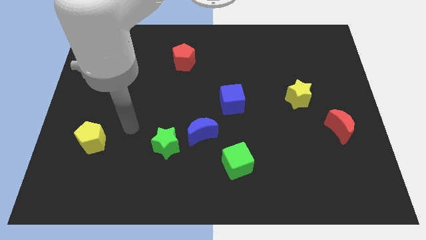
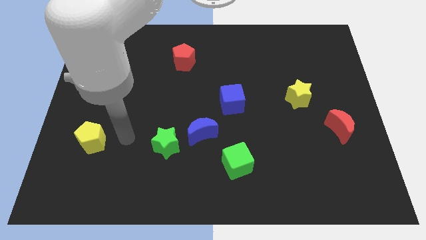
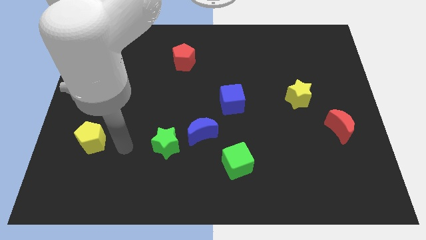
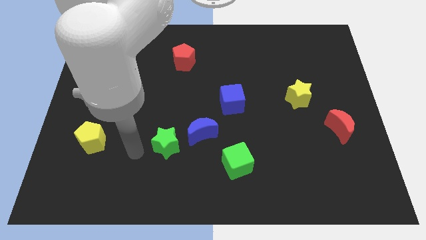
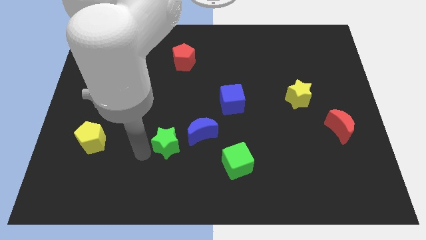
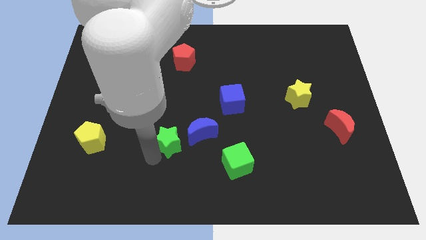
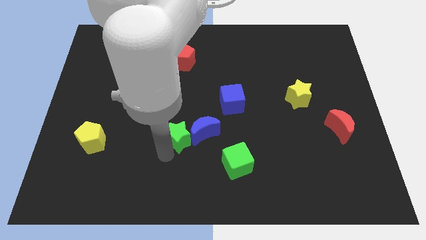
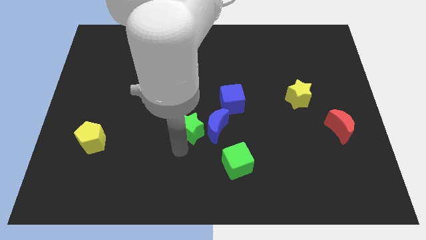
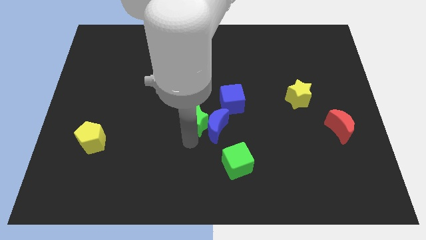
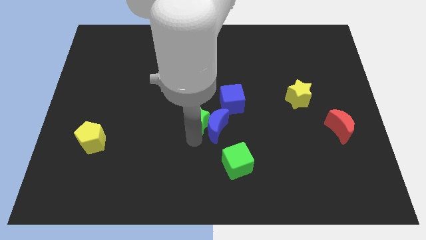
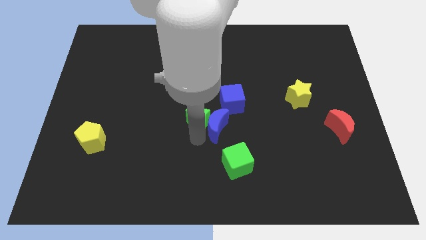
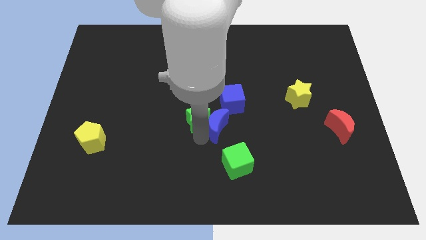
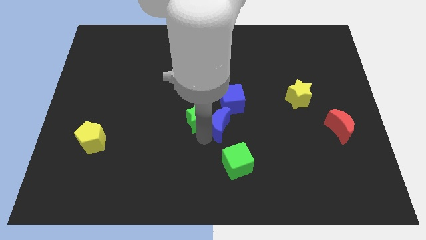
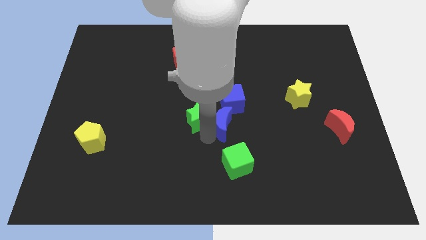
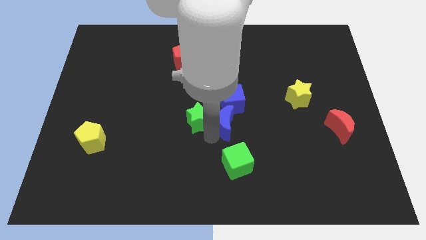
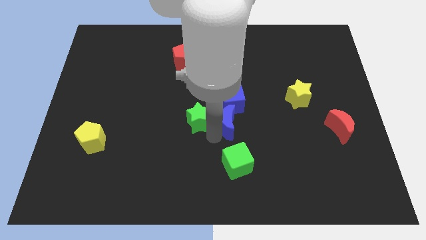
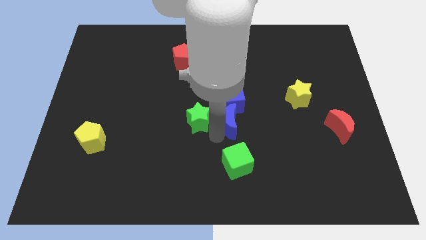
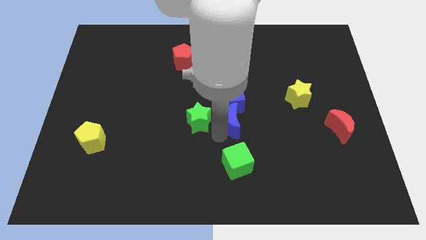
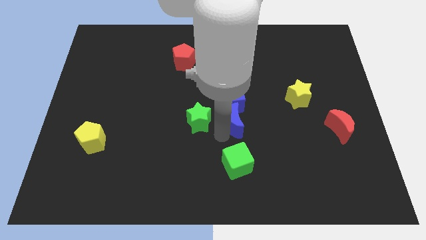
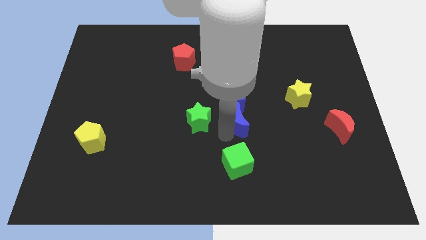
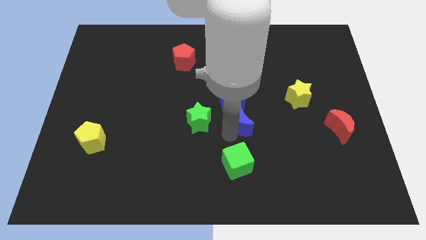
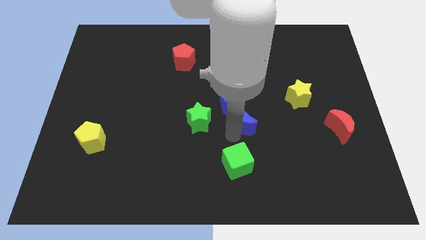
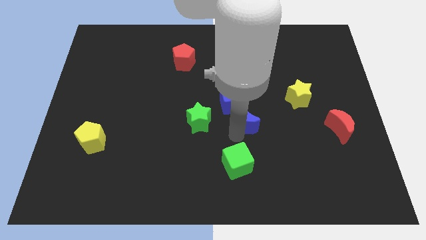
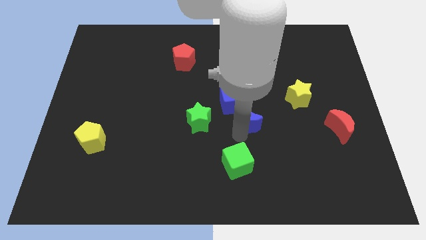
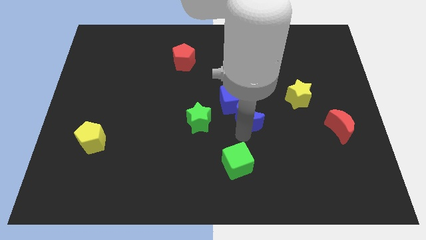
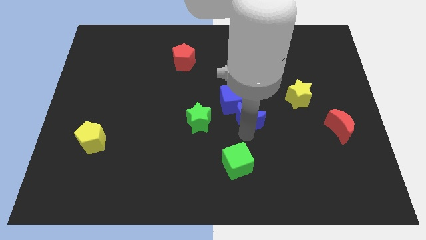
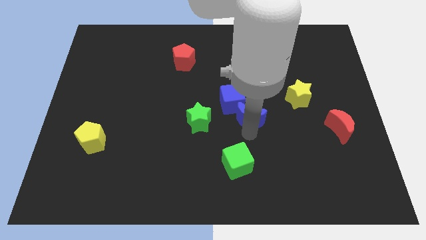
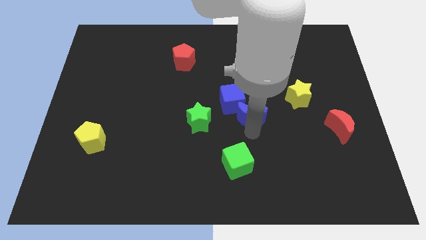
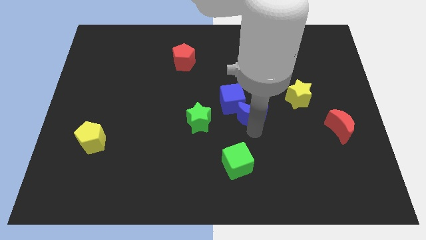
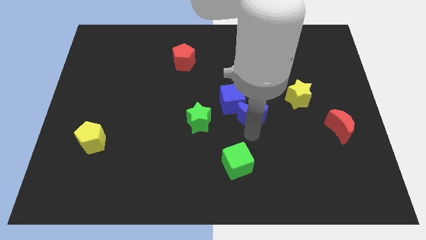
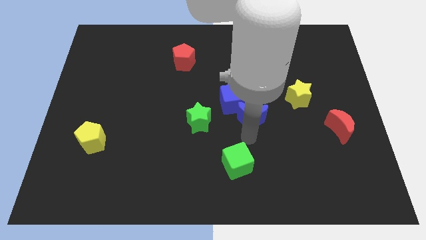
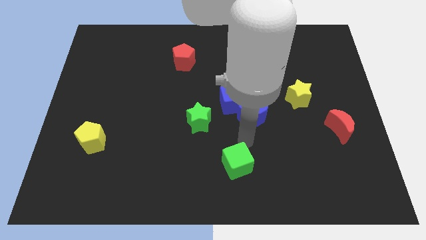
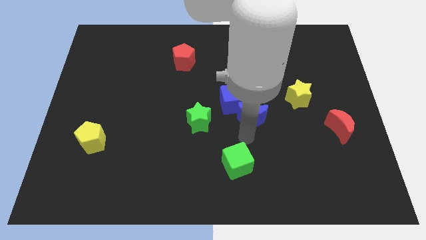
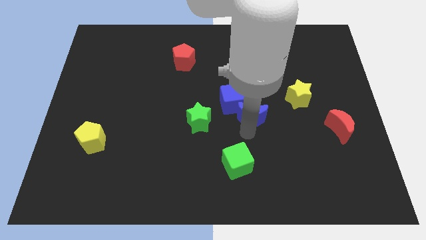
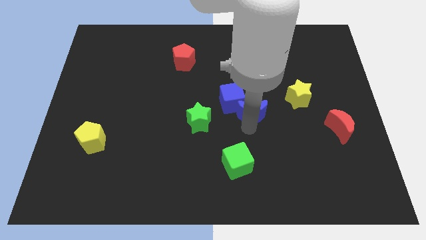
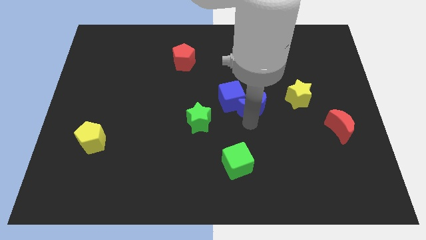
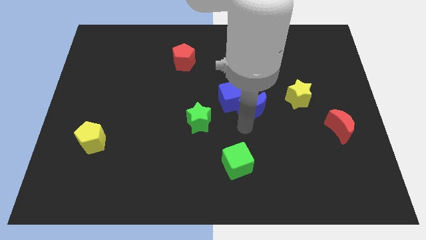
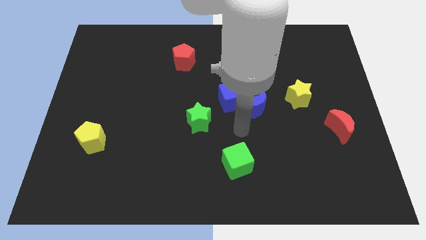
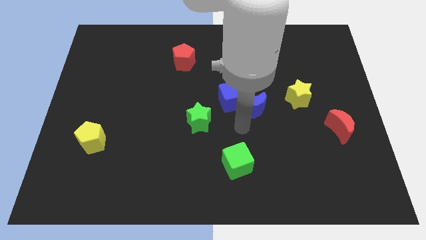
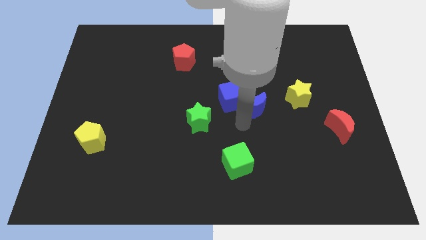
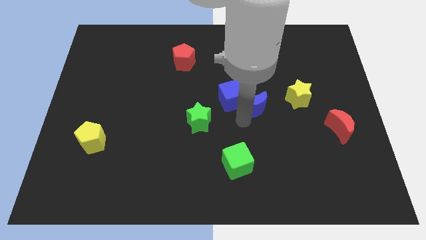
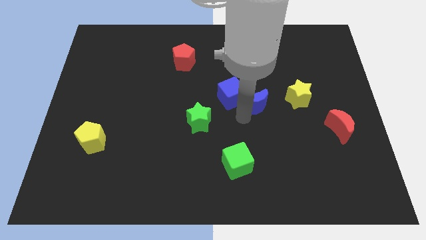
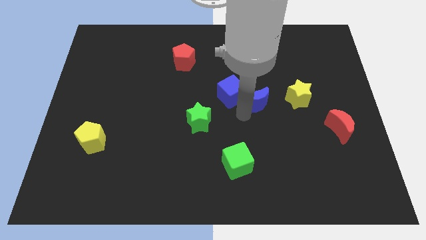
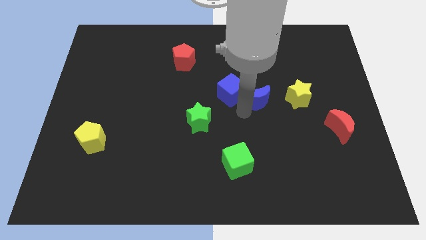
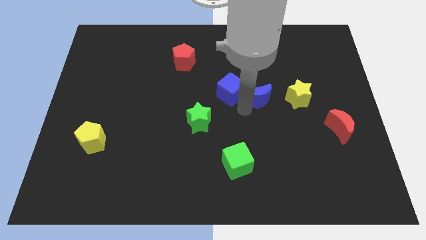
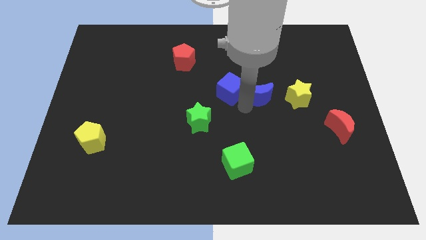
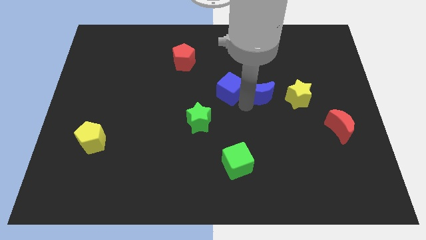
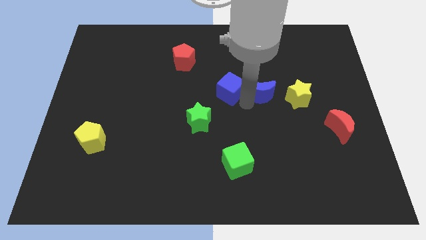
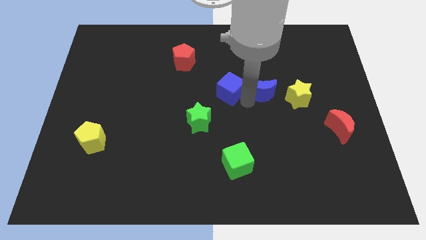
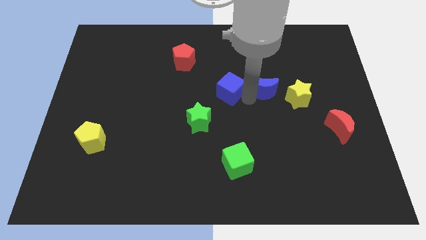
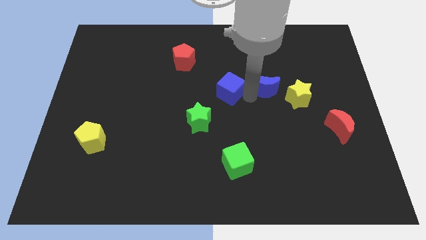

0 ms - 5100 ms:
push the blue moon upwards and right

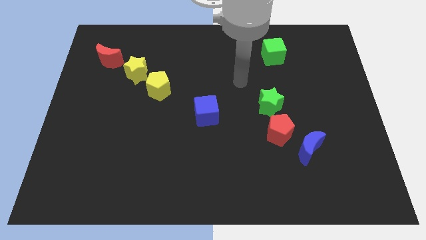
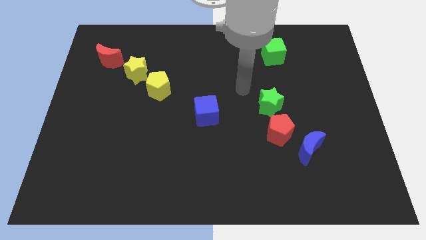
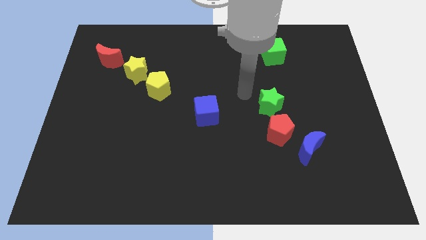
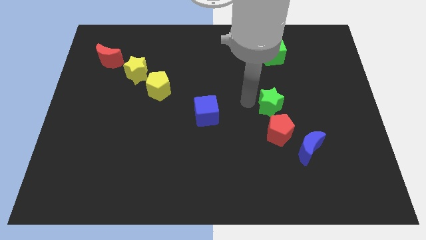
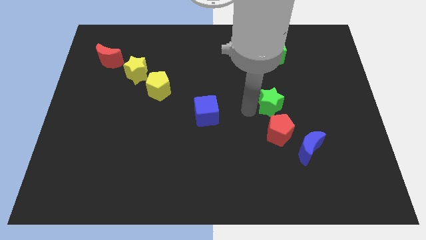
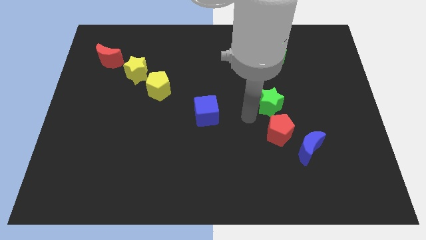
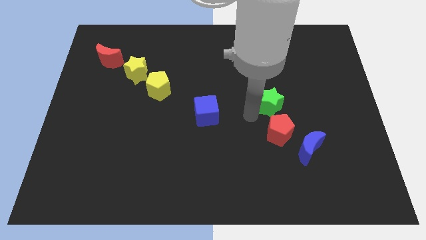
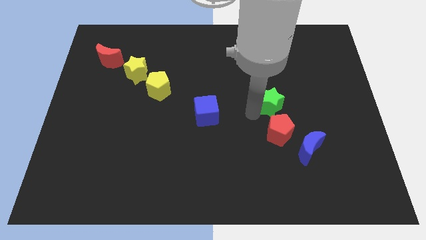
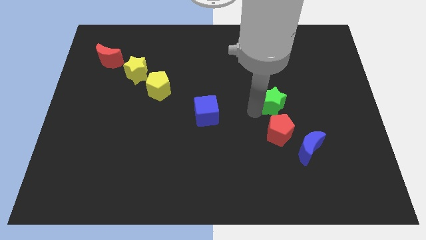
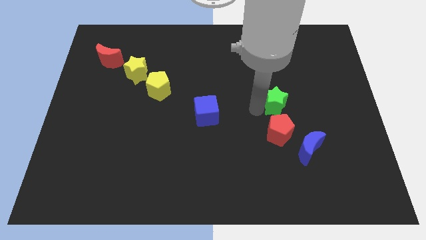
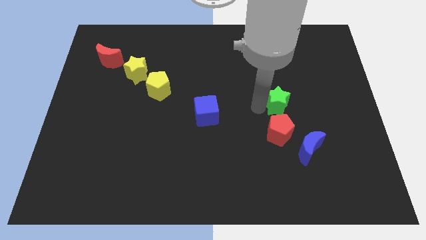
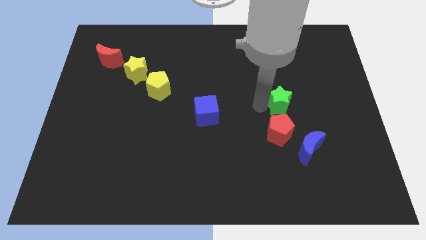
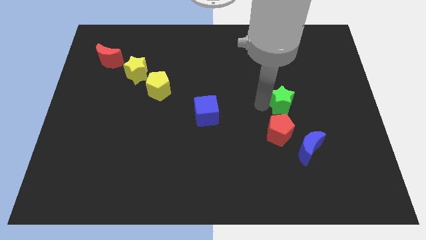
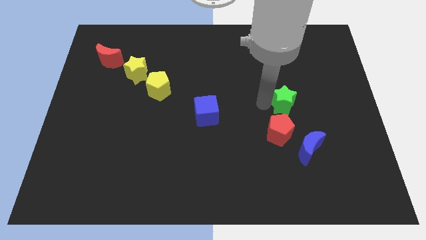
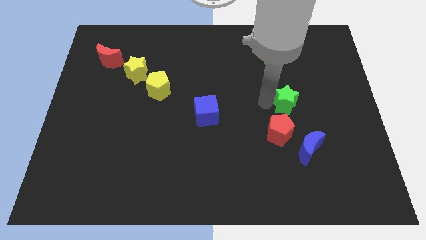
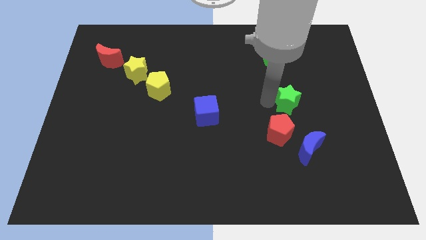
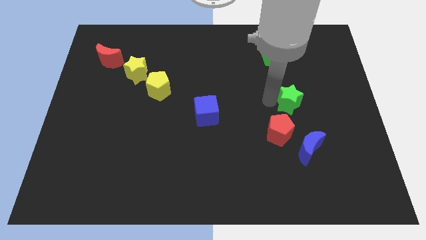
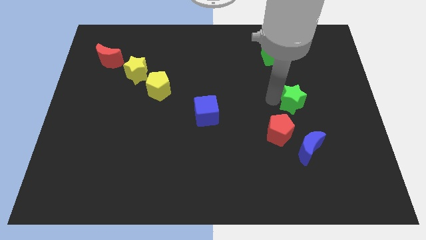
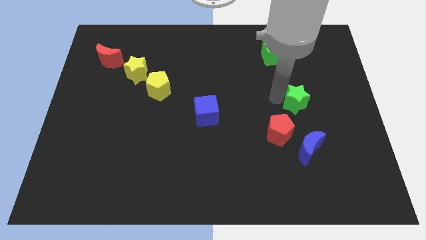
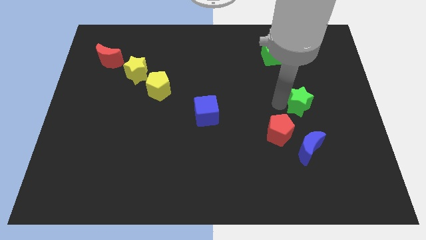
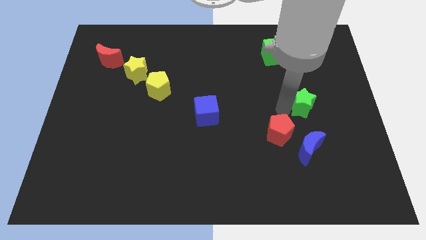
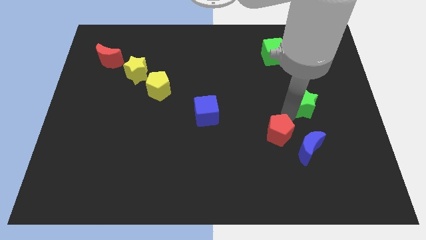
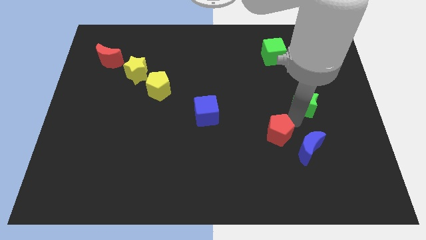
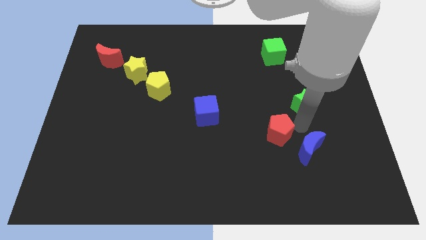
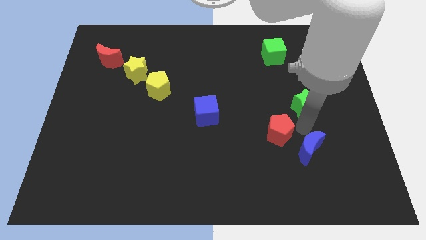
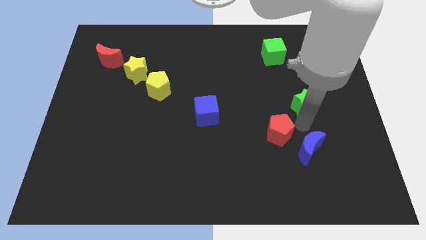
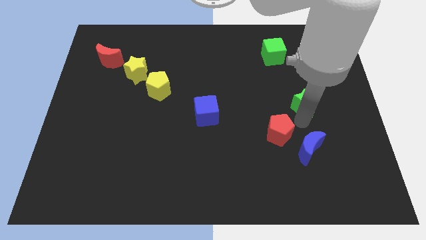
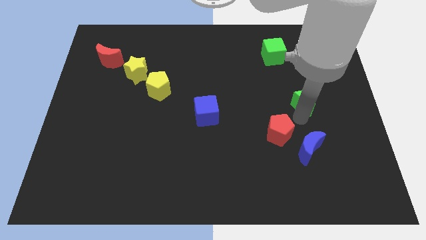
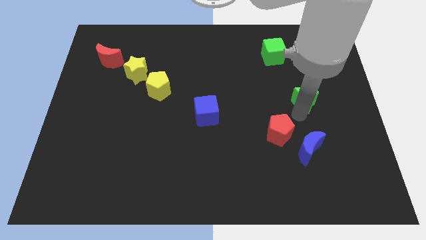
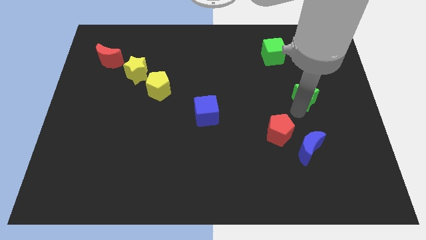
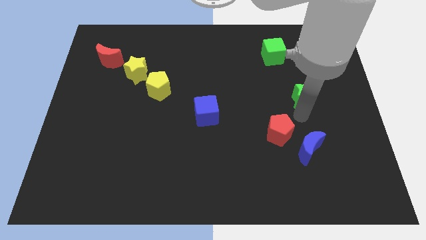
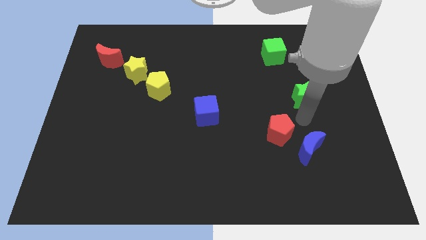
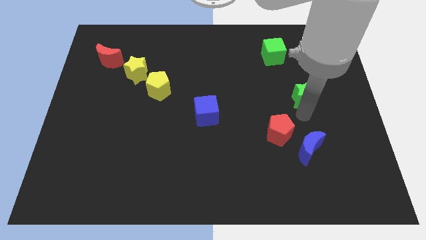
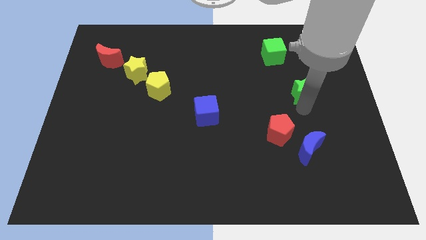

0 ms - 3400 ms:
slightly push the green star upwards and right diagonally
